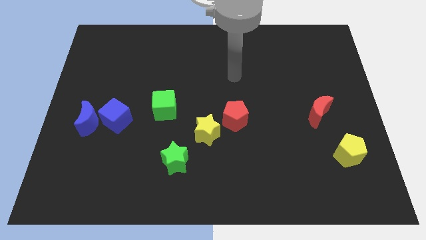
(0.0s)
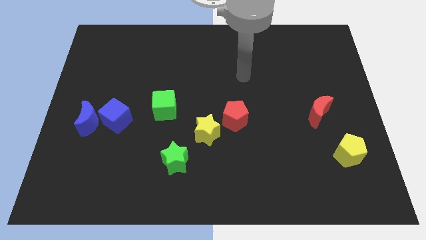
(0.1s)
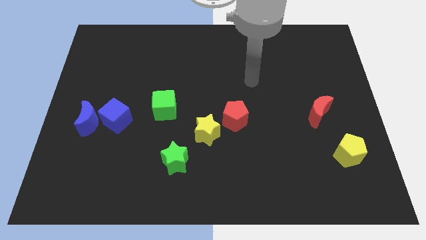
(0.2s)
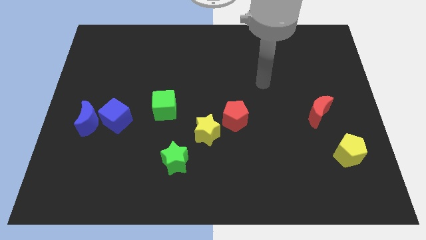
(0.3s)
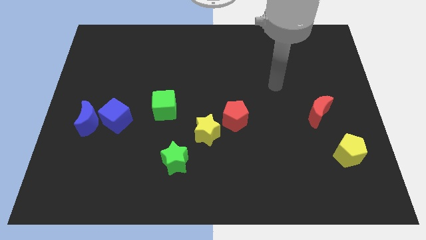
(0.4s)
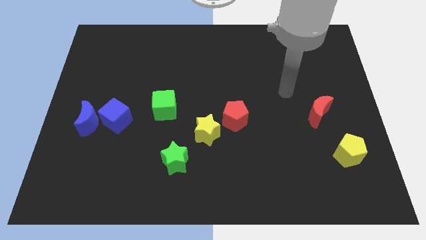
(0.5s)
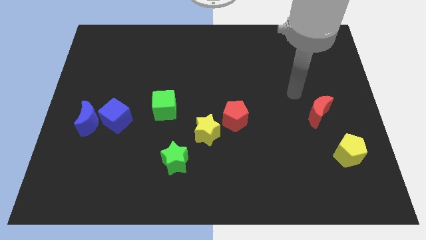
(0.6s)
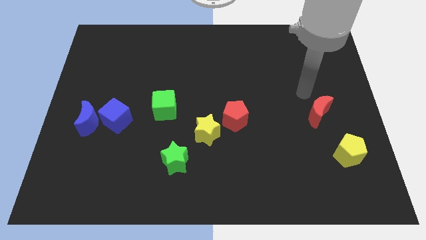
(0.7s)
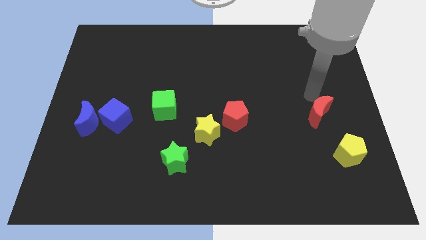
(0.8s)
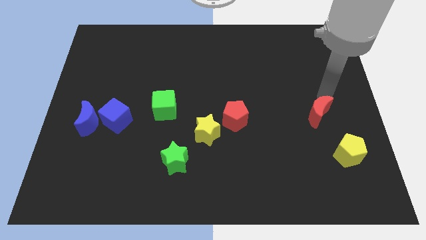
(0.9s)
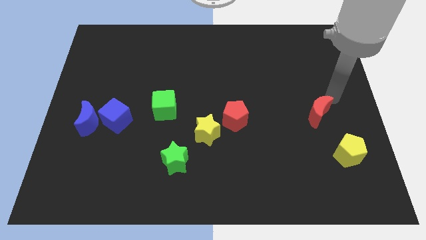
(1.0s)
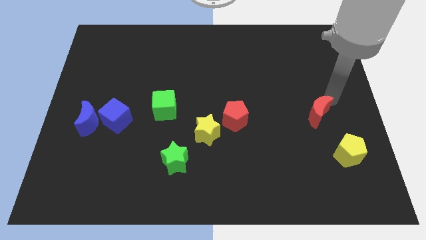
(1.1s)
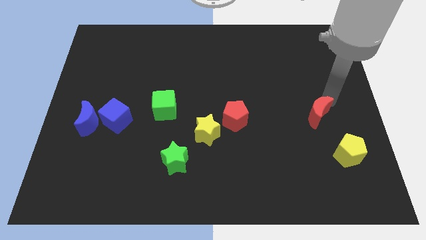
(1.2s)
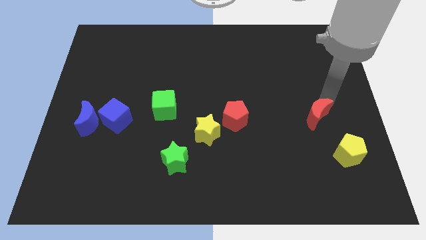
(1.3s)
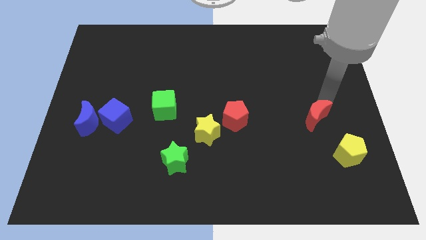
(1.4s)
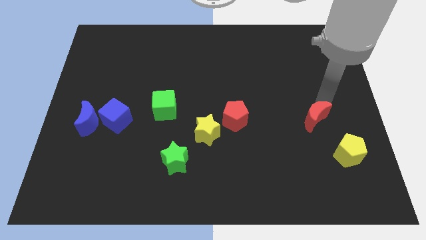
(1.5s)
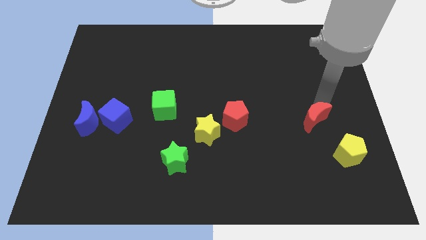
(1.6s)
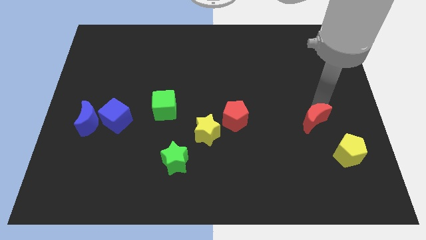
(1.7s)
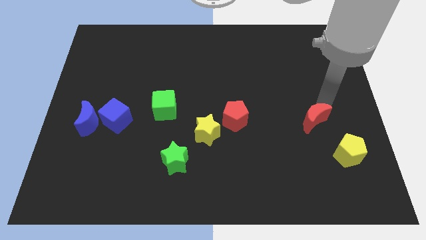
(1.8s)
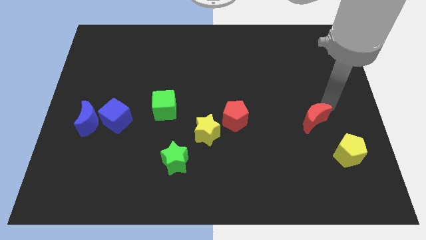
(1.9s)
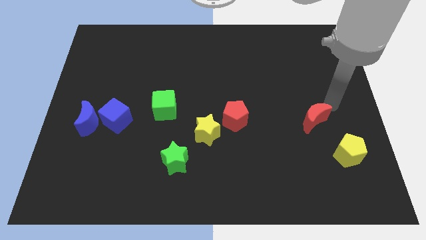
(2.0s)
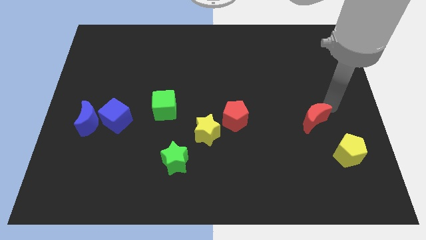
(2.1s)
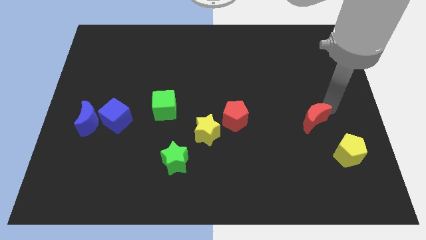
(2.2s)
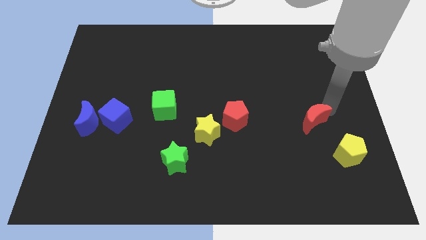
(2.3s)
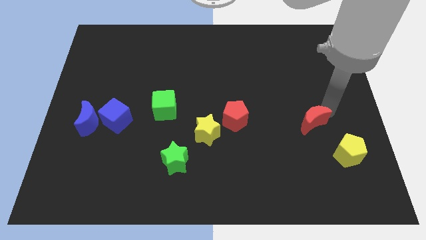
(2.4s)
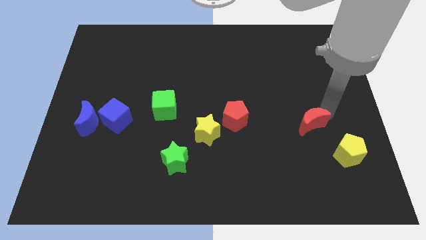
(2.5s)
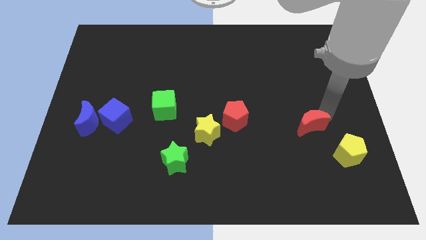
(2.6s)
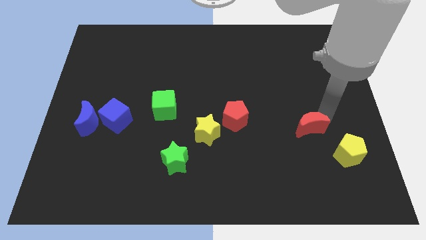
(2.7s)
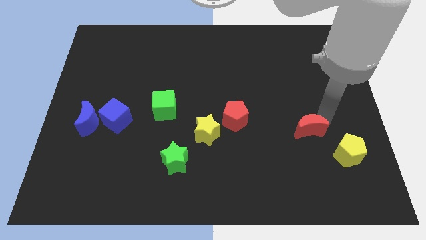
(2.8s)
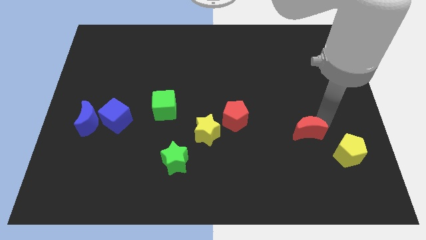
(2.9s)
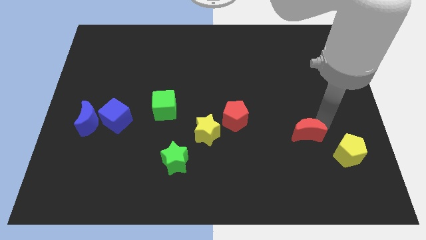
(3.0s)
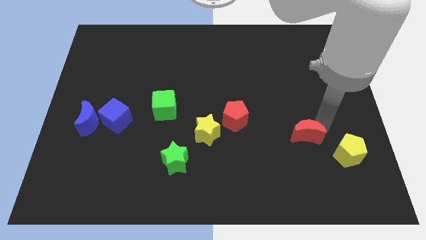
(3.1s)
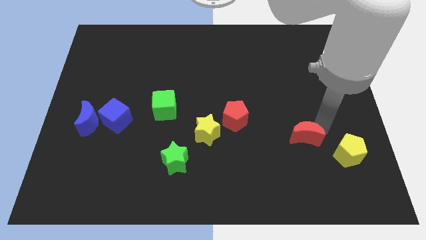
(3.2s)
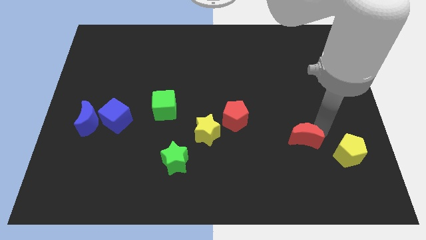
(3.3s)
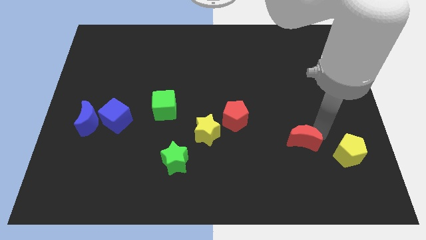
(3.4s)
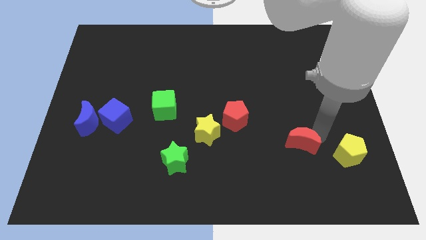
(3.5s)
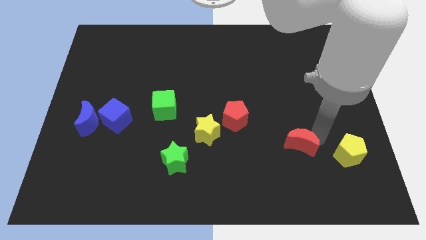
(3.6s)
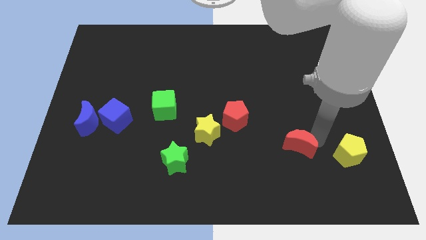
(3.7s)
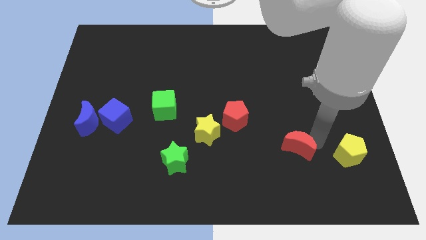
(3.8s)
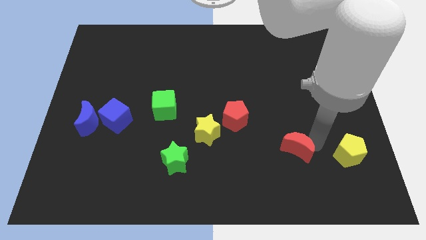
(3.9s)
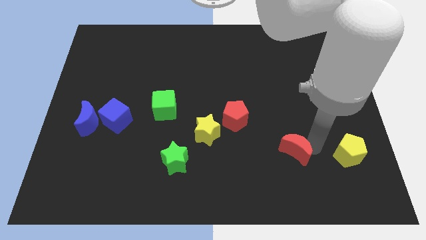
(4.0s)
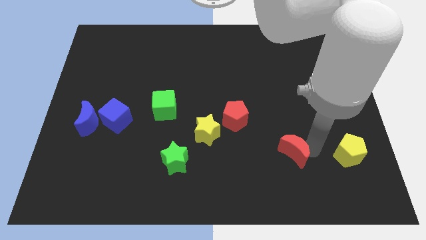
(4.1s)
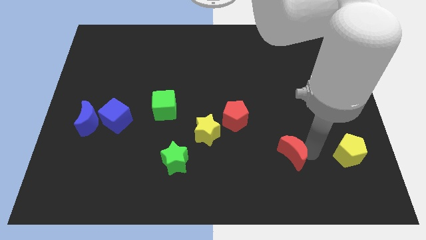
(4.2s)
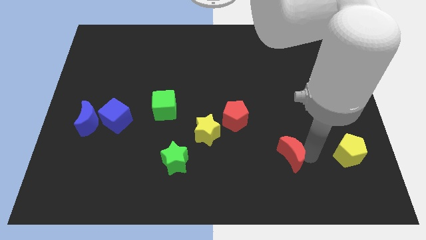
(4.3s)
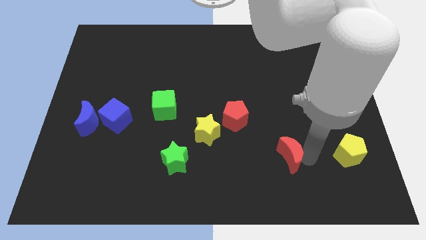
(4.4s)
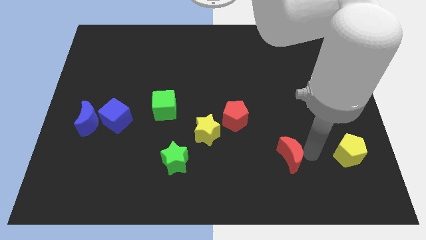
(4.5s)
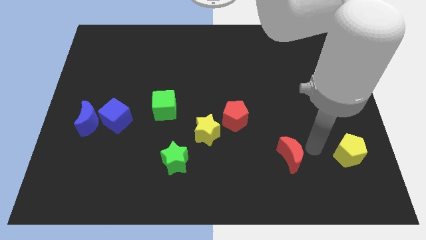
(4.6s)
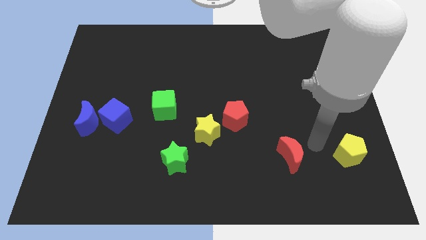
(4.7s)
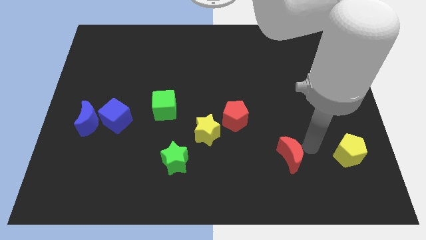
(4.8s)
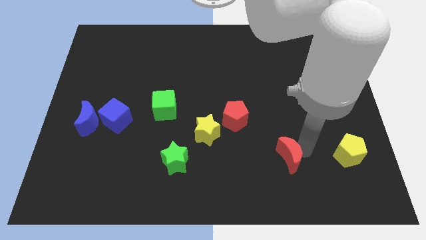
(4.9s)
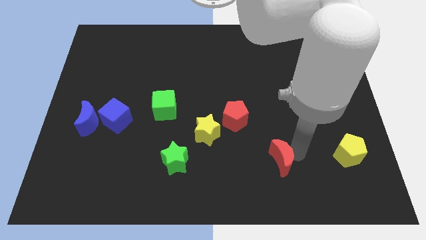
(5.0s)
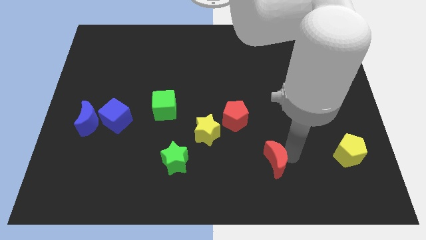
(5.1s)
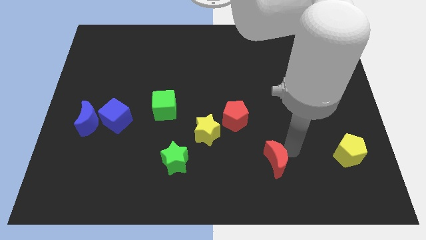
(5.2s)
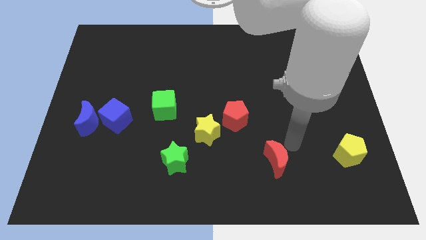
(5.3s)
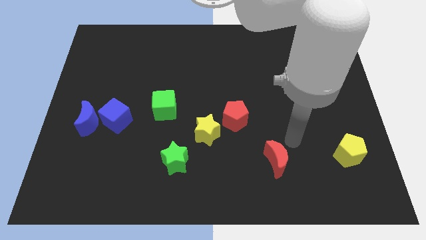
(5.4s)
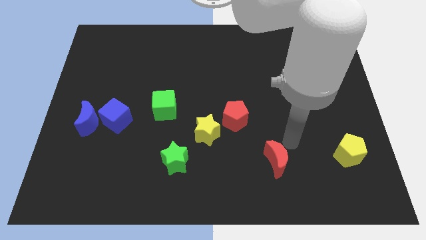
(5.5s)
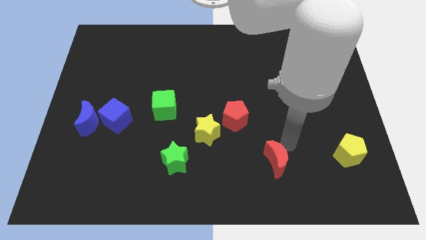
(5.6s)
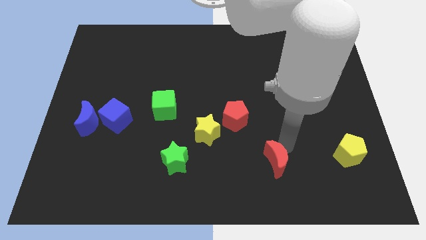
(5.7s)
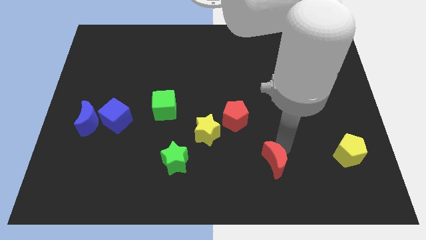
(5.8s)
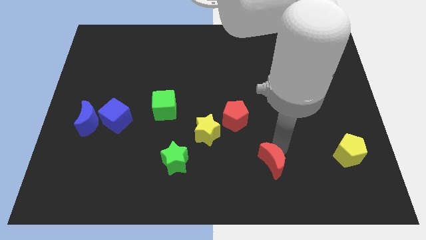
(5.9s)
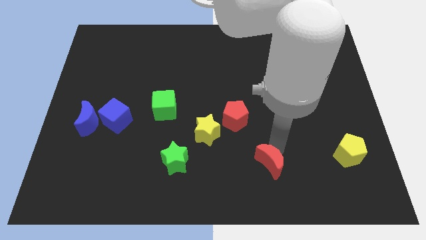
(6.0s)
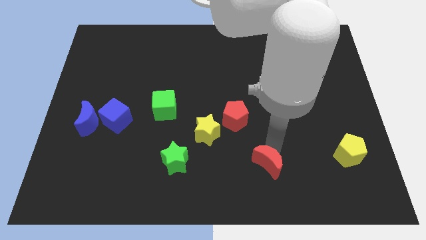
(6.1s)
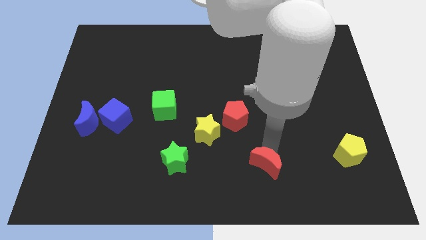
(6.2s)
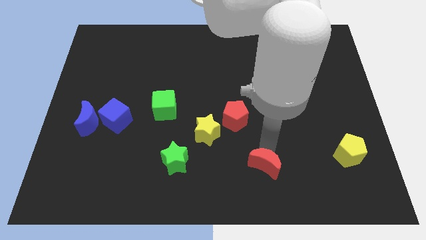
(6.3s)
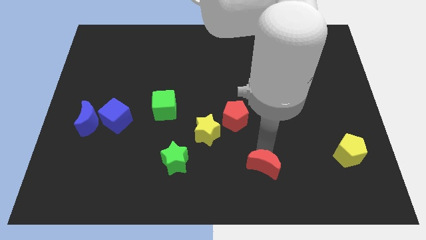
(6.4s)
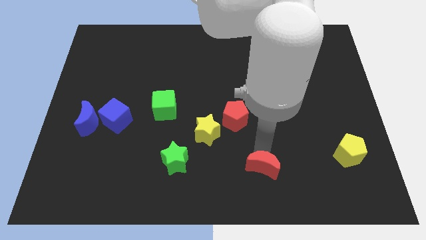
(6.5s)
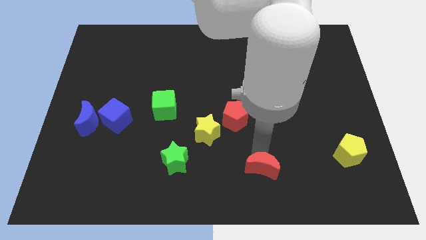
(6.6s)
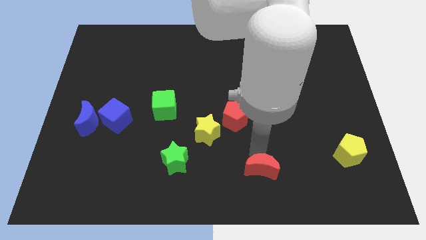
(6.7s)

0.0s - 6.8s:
slide the red moon to the bottom
